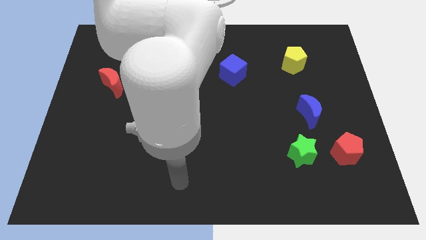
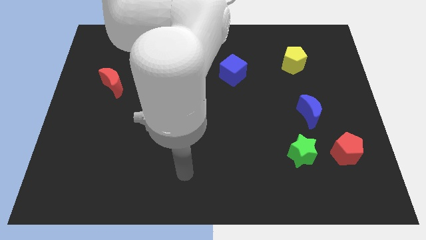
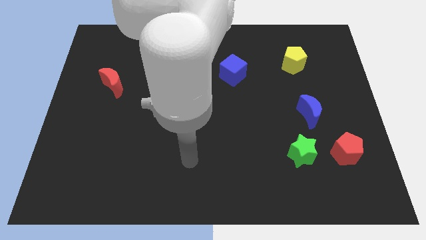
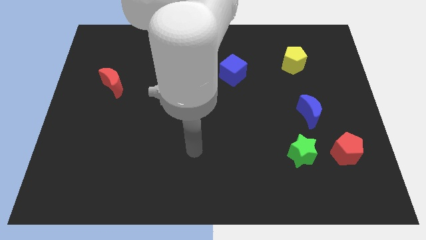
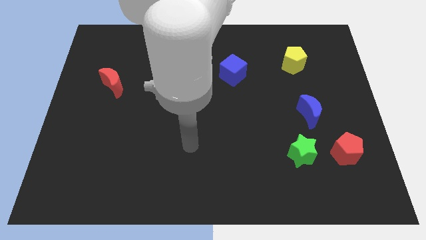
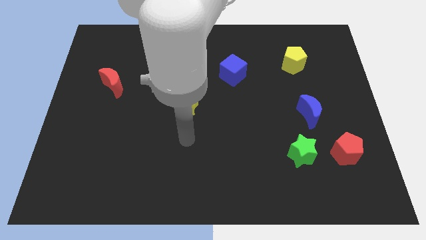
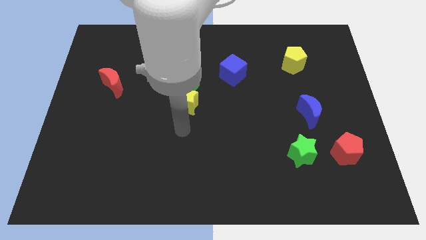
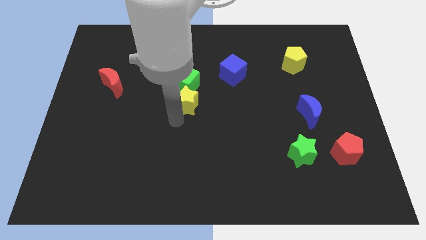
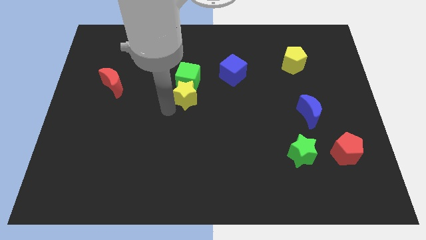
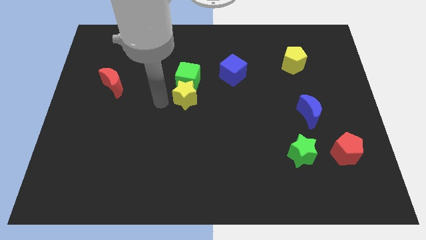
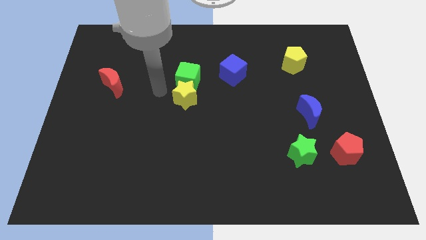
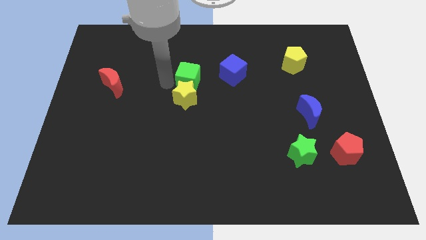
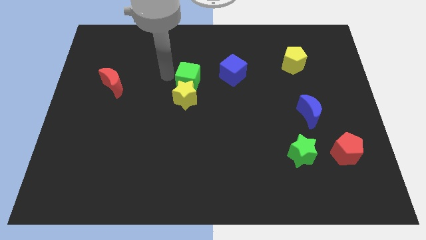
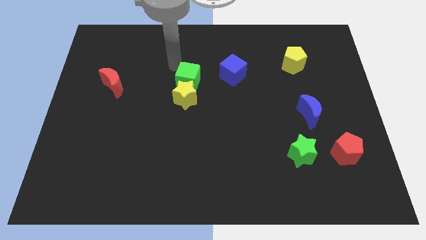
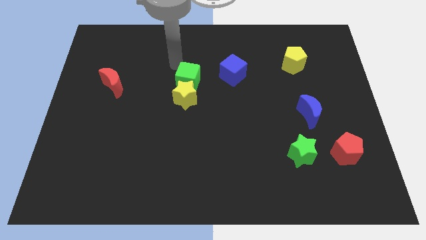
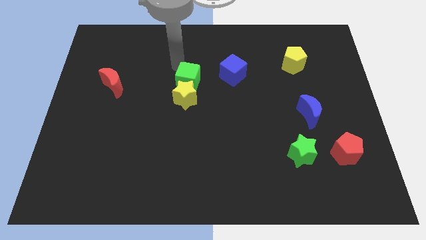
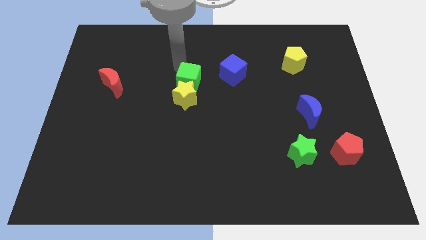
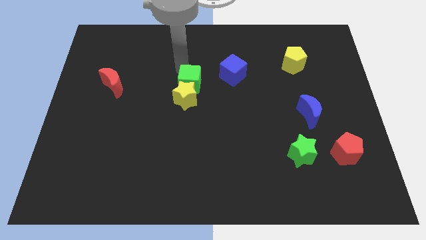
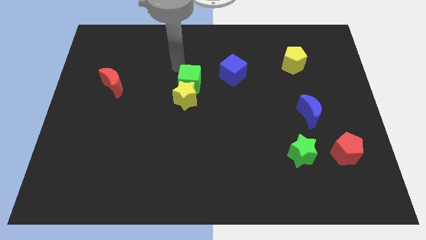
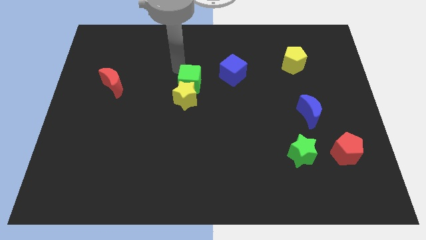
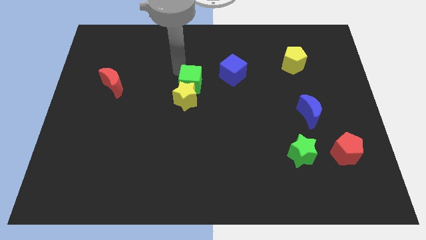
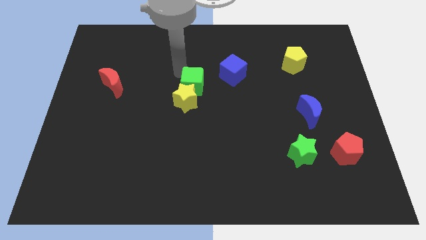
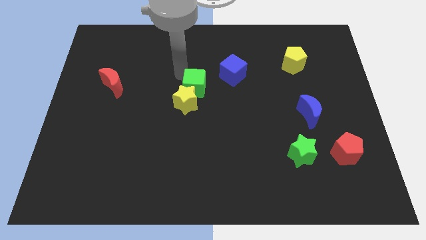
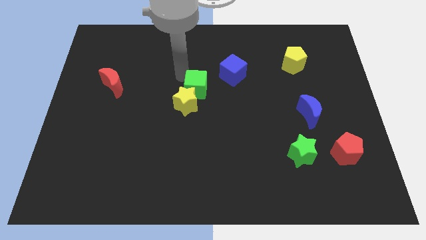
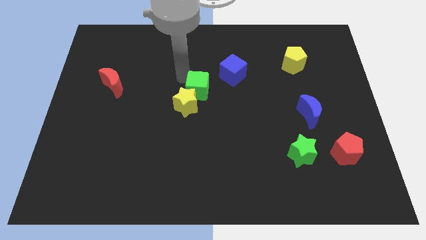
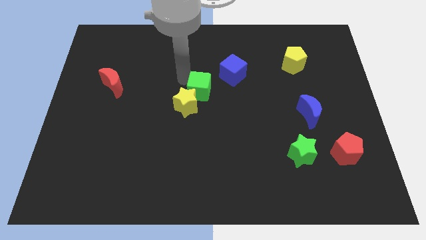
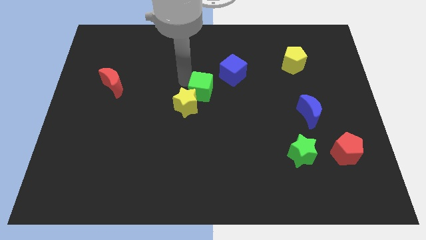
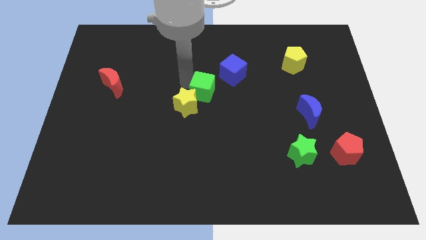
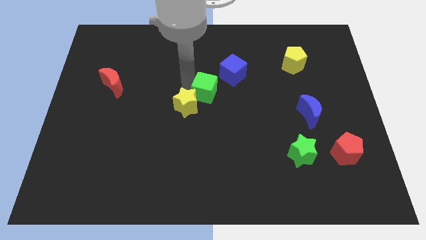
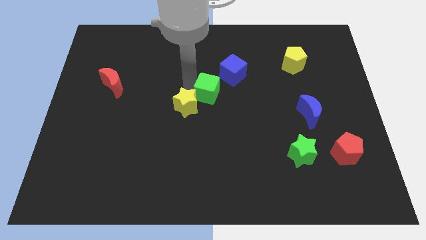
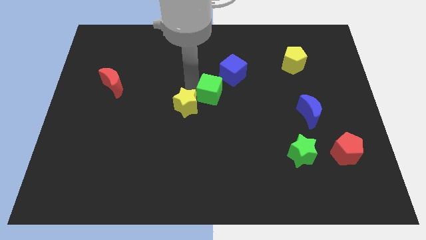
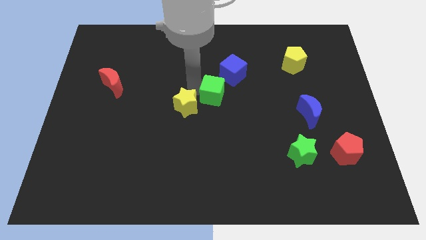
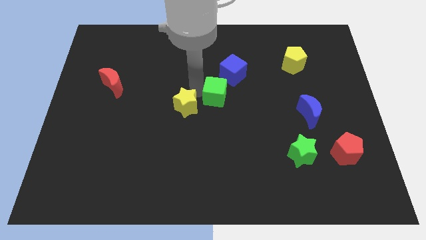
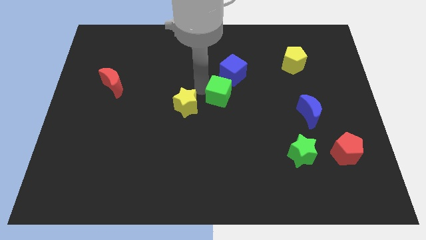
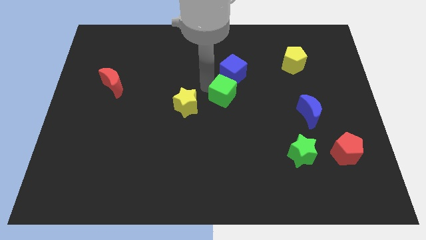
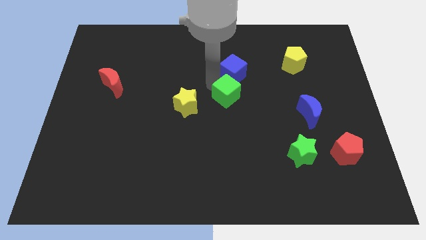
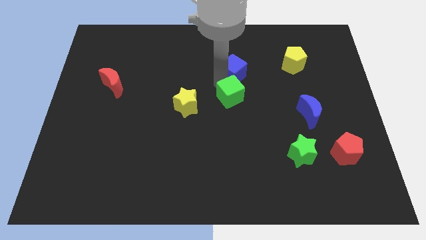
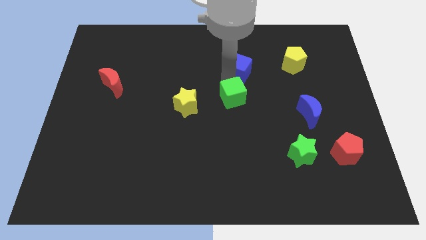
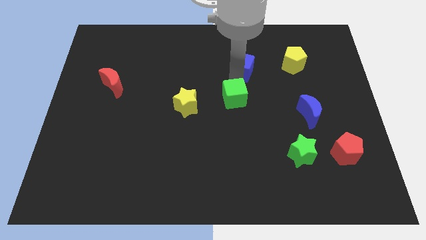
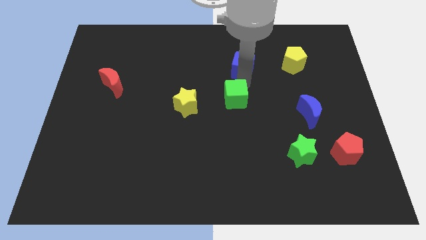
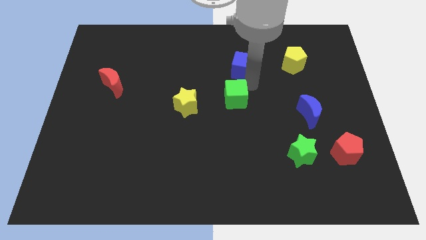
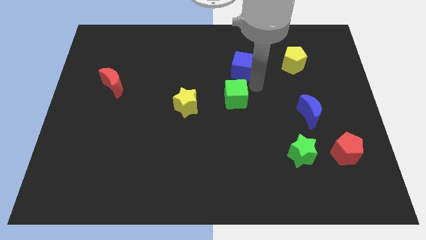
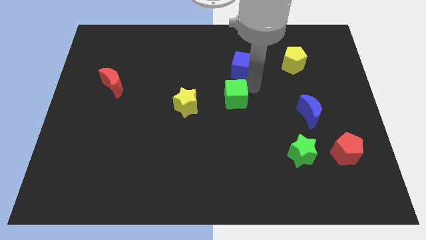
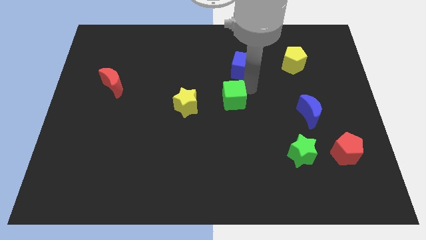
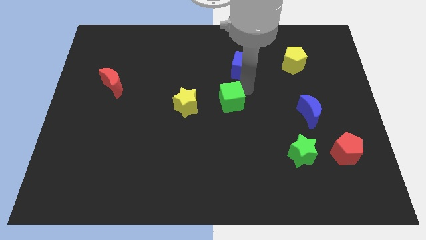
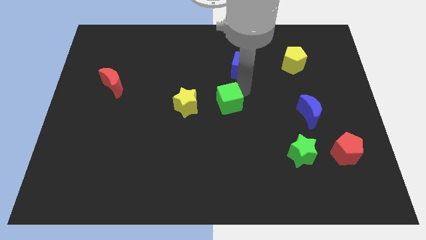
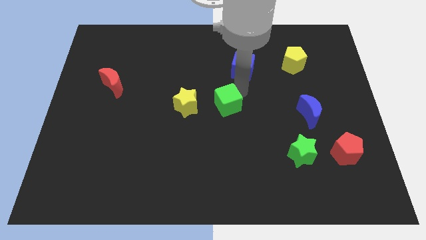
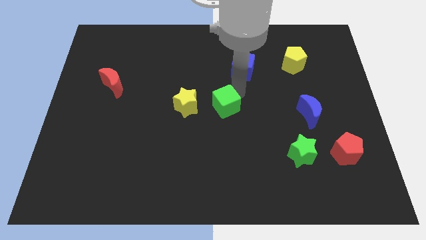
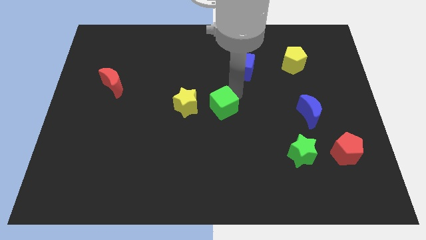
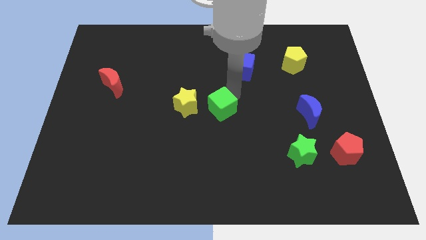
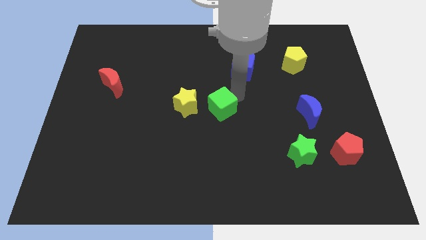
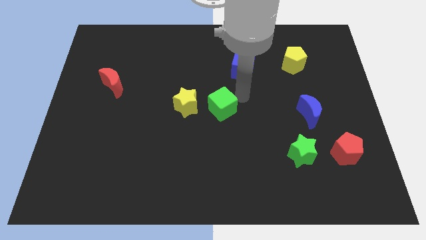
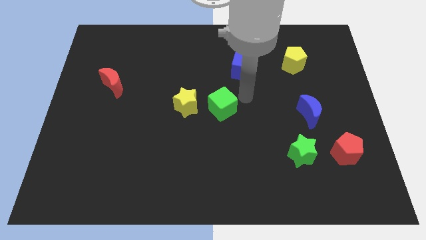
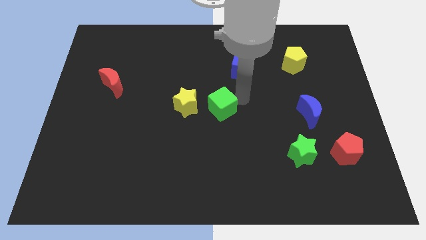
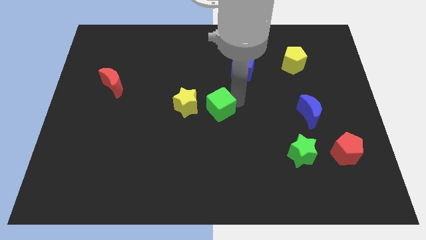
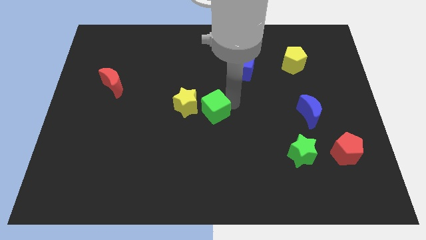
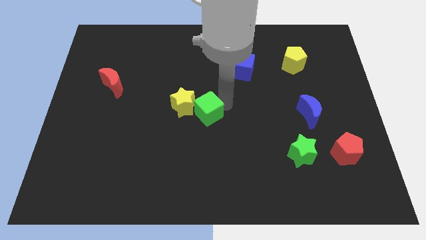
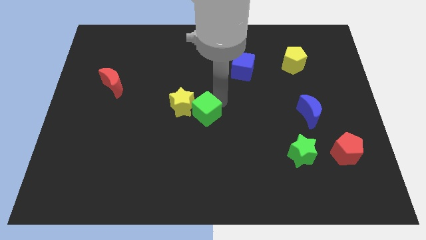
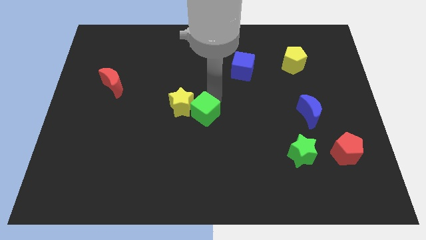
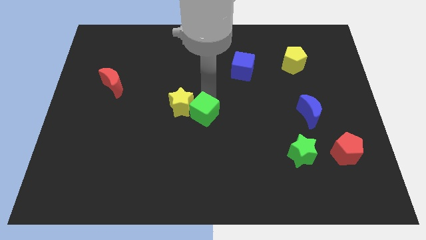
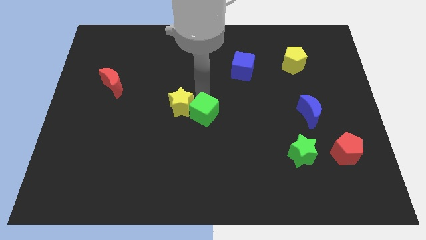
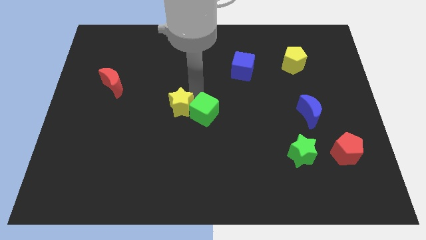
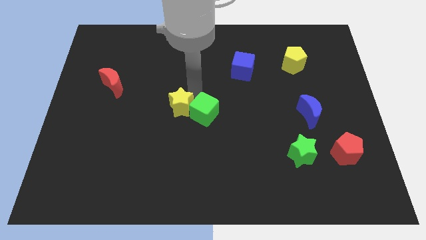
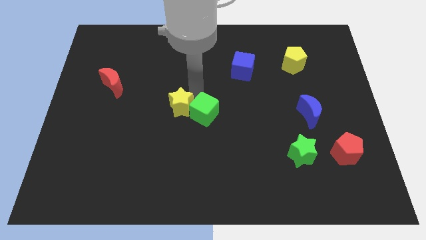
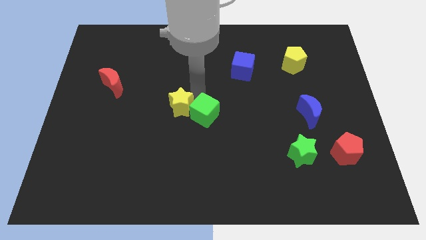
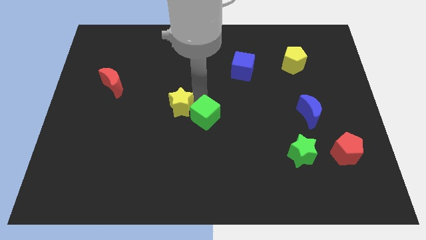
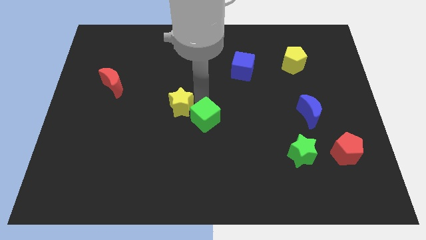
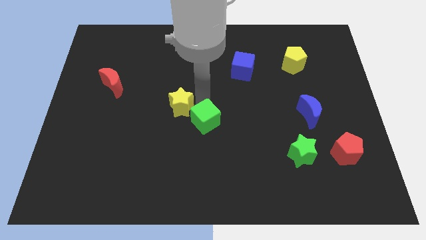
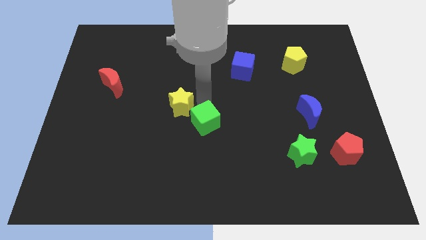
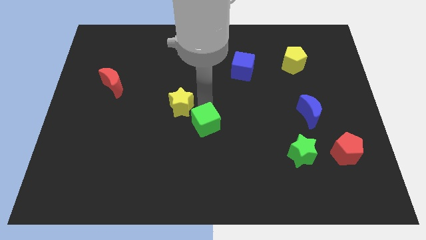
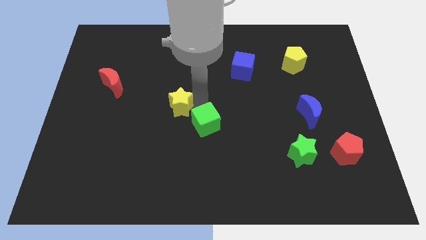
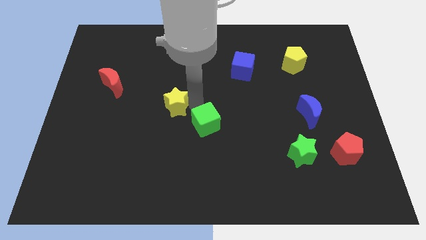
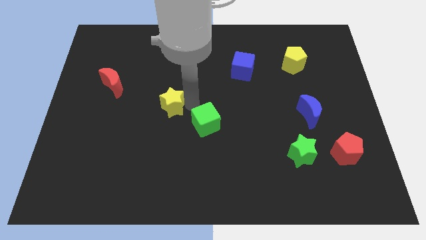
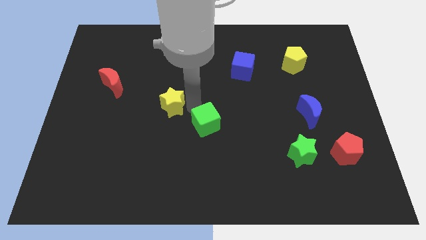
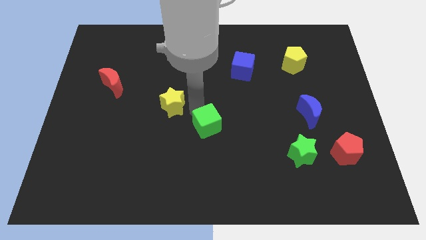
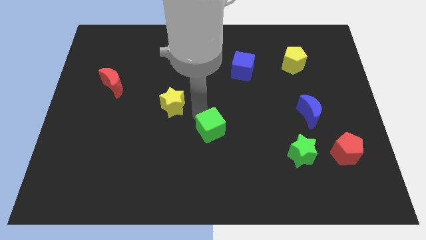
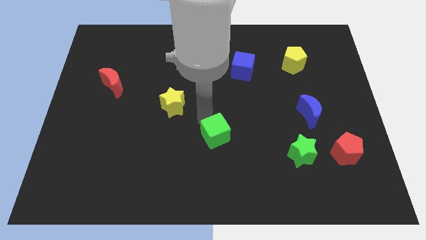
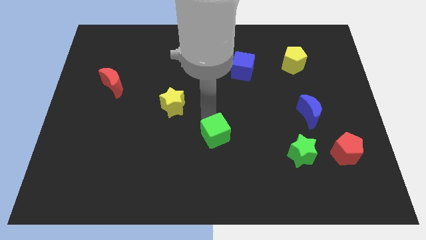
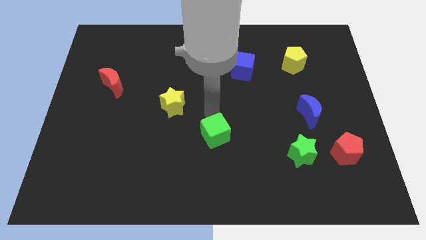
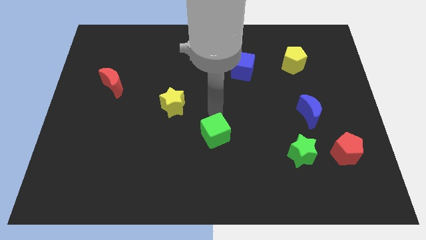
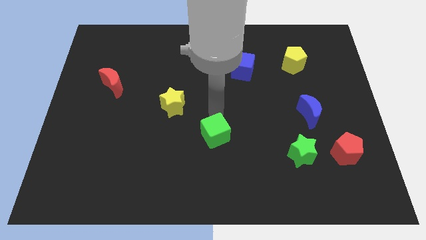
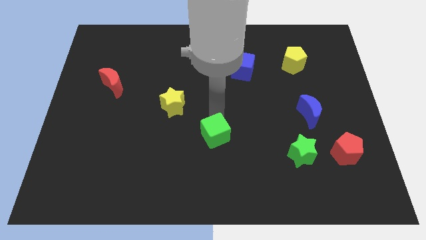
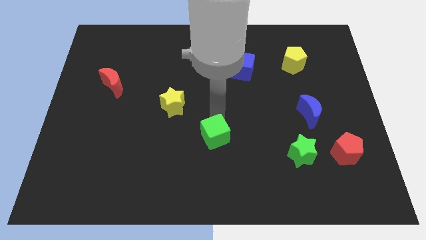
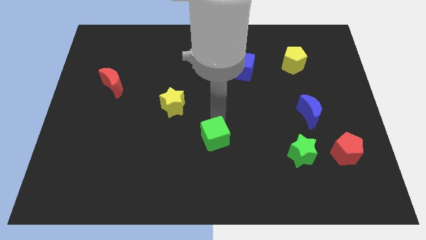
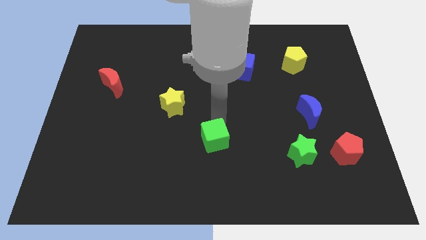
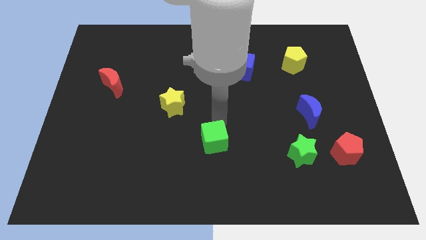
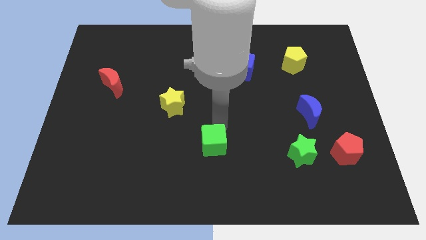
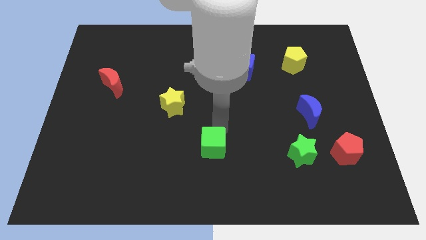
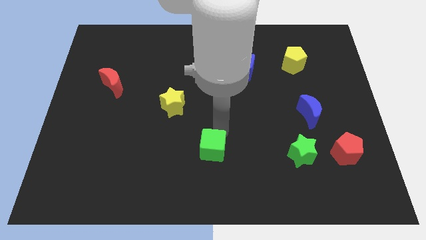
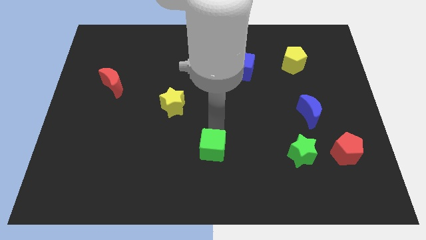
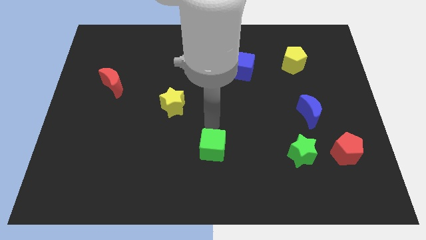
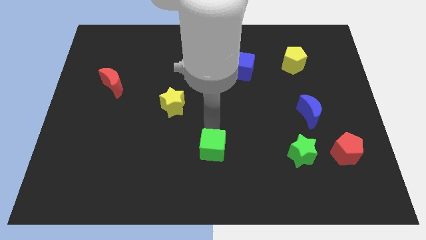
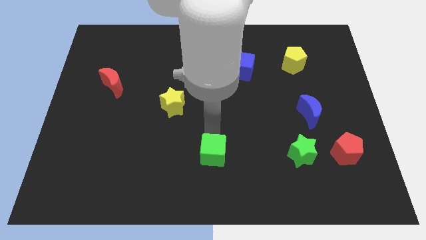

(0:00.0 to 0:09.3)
slide the green cube to the bottom side
